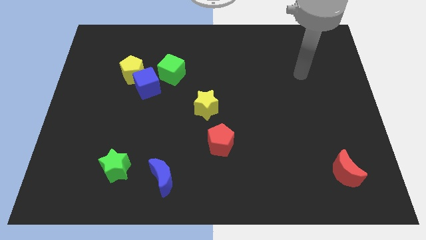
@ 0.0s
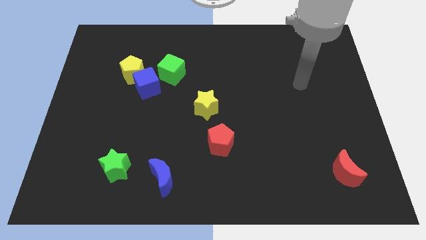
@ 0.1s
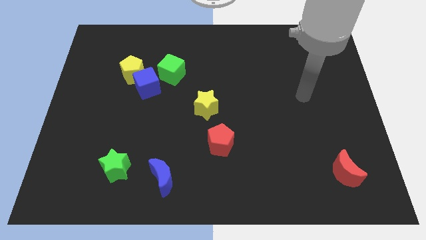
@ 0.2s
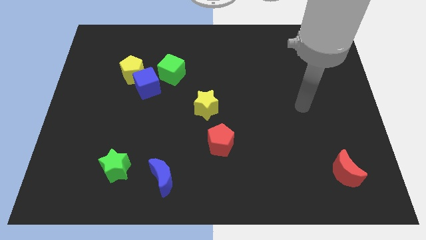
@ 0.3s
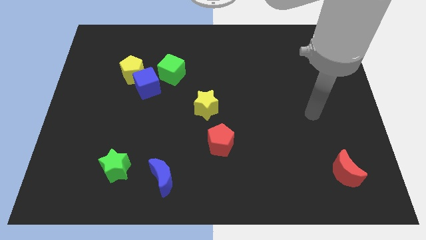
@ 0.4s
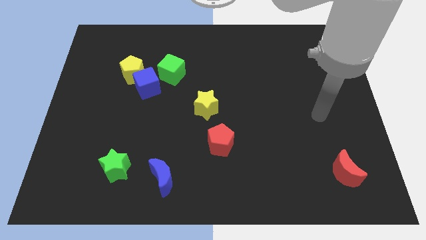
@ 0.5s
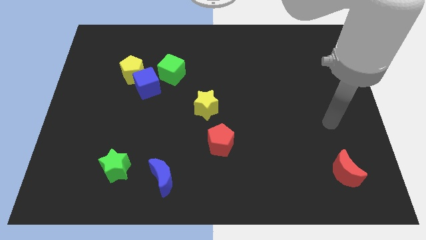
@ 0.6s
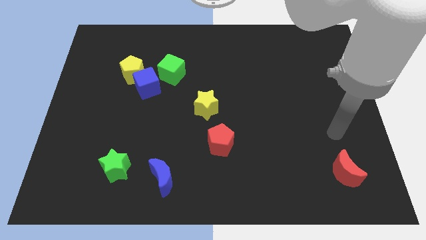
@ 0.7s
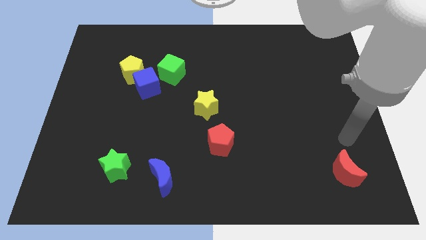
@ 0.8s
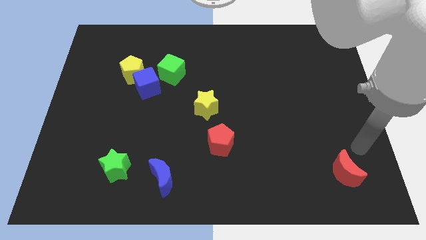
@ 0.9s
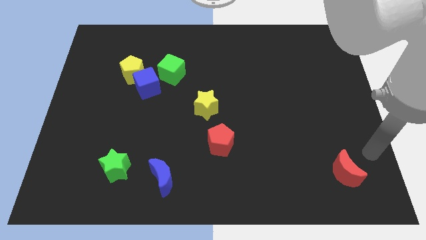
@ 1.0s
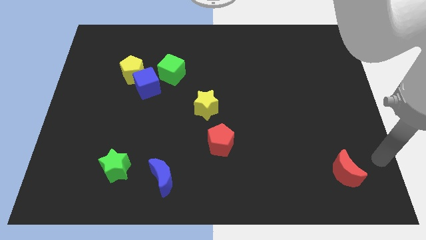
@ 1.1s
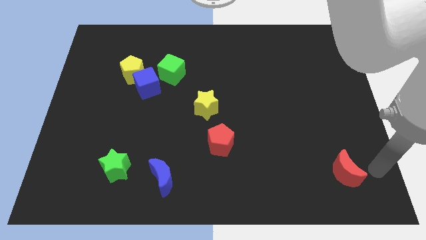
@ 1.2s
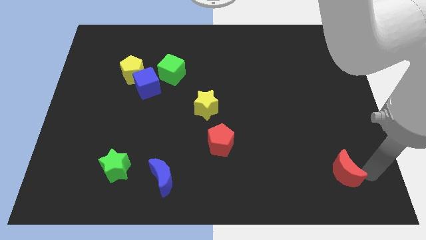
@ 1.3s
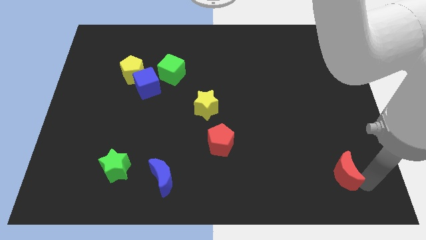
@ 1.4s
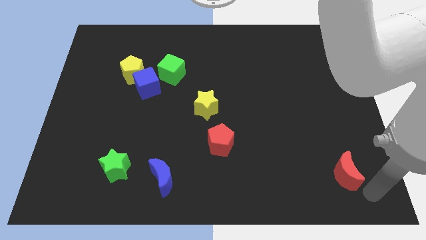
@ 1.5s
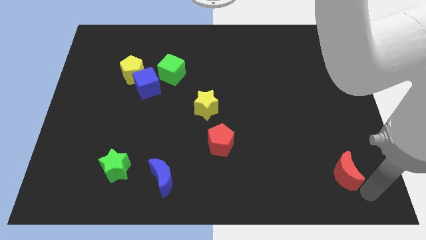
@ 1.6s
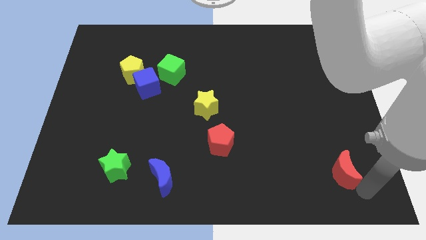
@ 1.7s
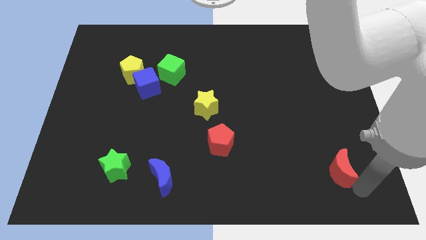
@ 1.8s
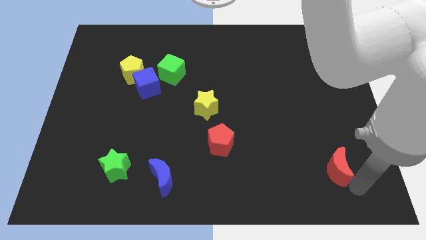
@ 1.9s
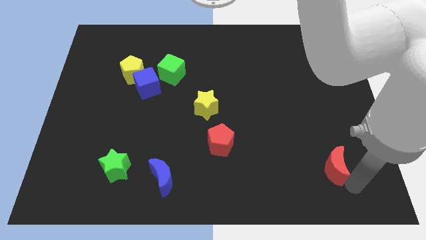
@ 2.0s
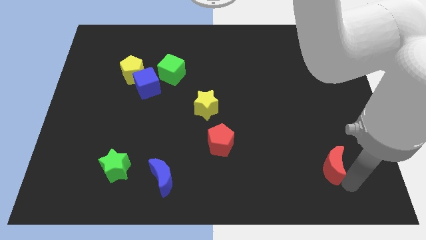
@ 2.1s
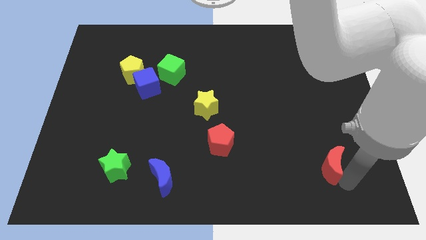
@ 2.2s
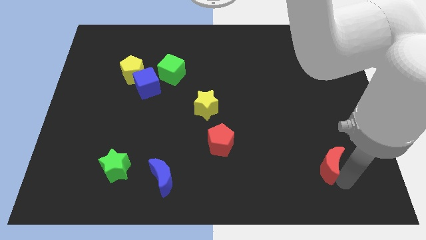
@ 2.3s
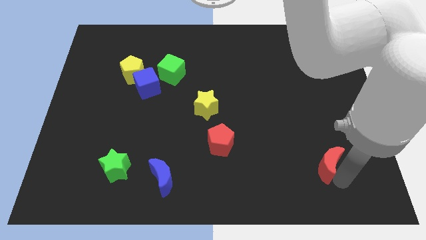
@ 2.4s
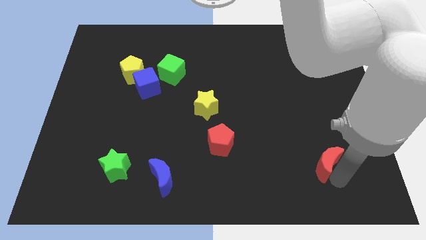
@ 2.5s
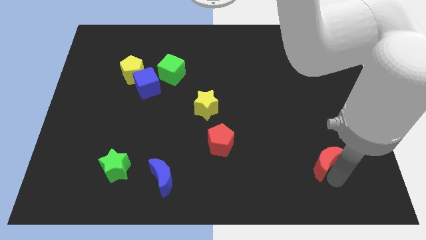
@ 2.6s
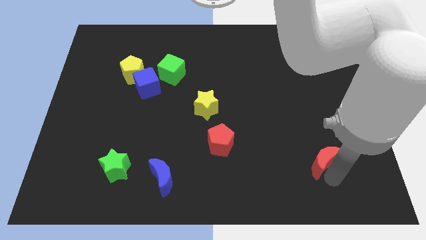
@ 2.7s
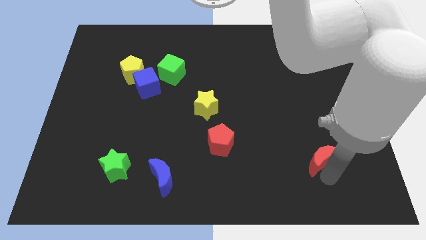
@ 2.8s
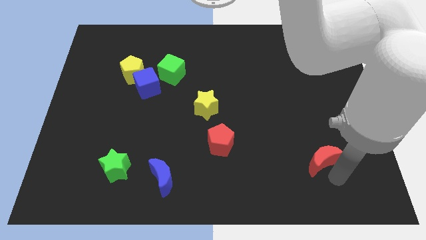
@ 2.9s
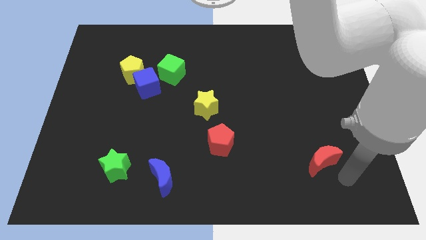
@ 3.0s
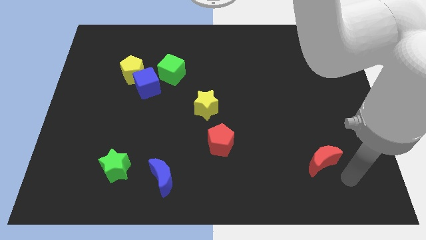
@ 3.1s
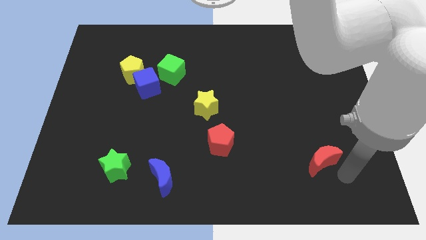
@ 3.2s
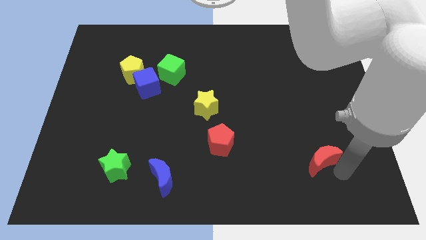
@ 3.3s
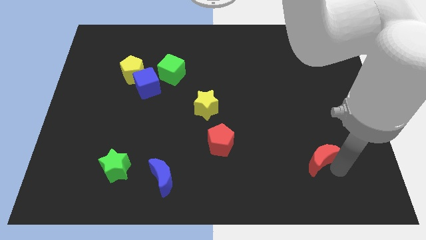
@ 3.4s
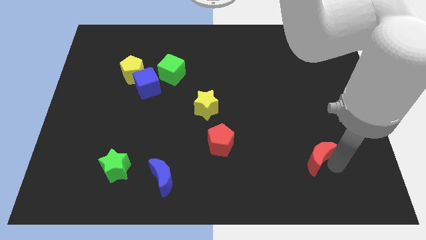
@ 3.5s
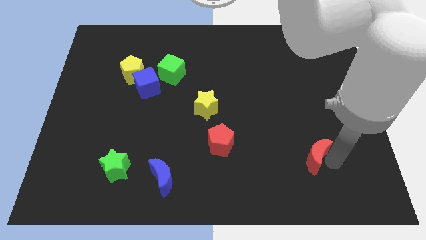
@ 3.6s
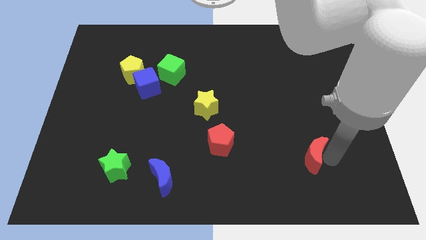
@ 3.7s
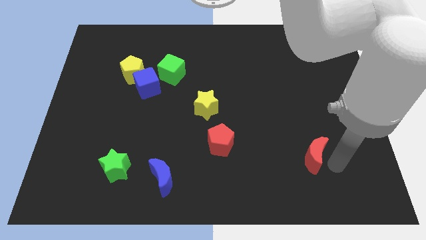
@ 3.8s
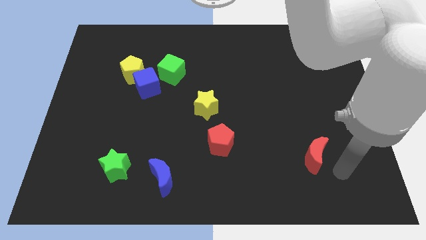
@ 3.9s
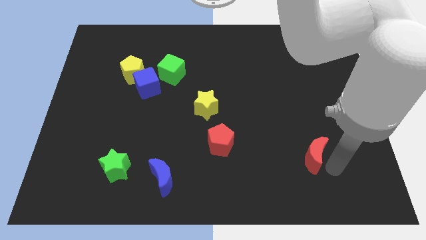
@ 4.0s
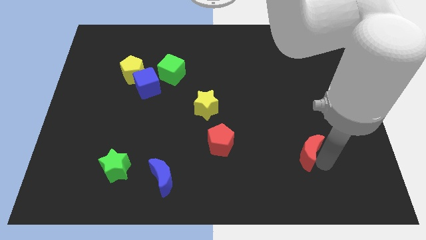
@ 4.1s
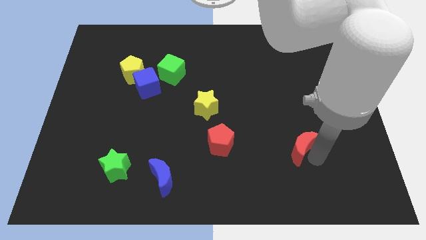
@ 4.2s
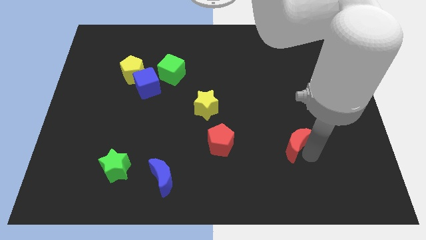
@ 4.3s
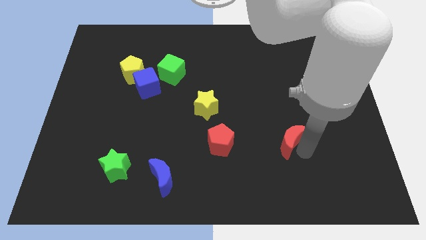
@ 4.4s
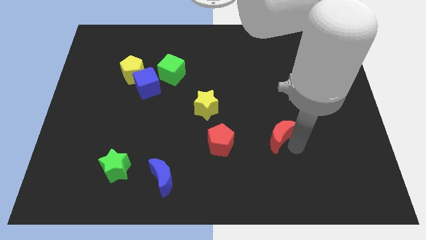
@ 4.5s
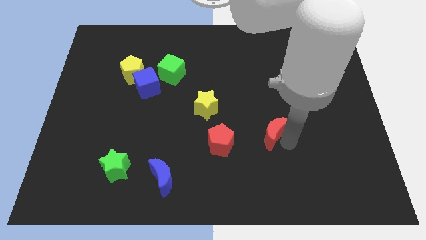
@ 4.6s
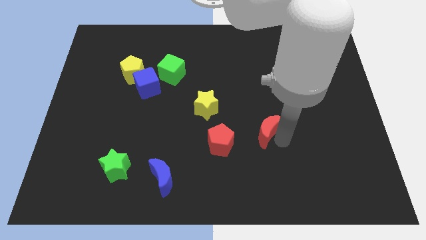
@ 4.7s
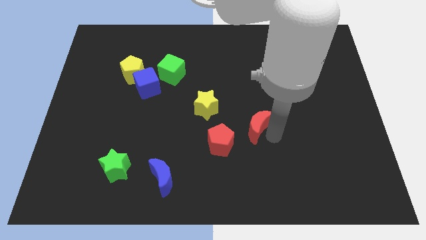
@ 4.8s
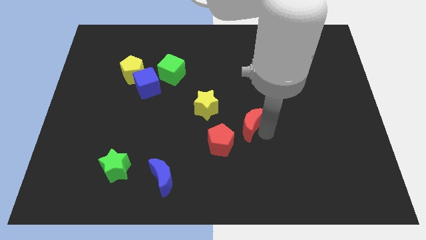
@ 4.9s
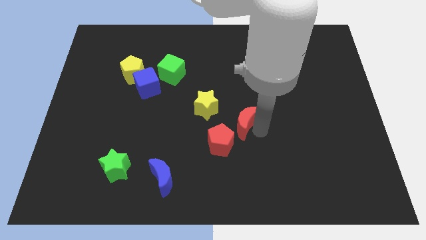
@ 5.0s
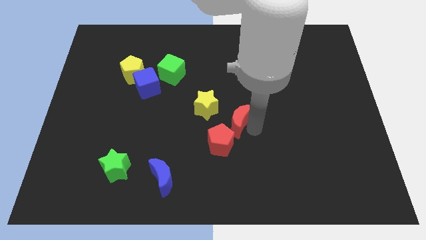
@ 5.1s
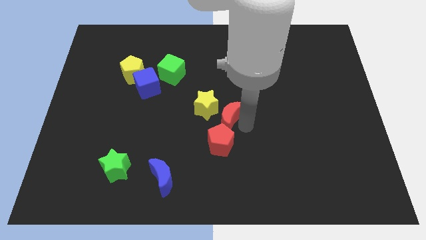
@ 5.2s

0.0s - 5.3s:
slide the red moon next to the yellow star

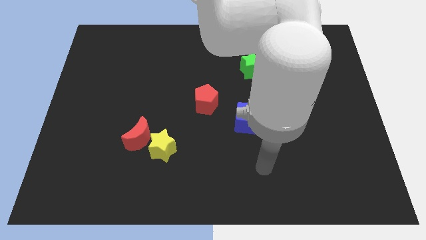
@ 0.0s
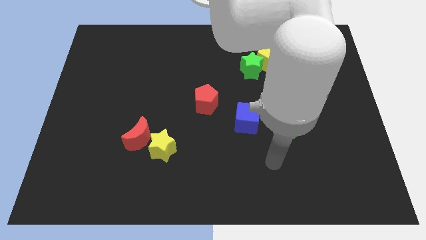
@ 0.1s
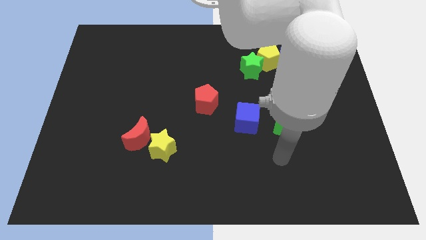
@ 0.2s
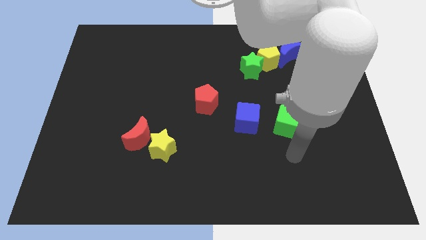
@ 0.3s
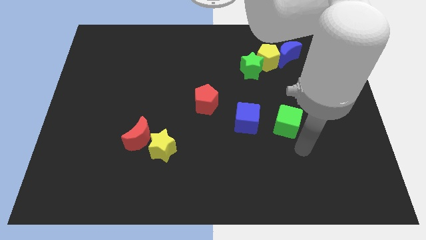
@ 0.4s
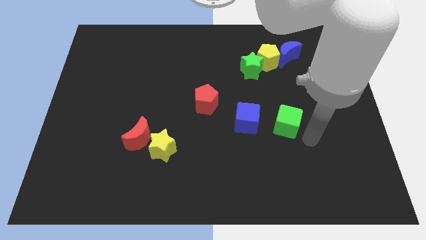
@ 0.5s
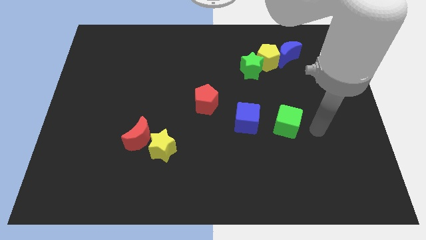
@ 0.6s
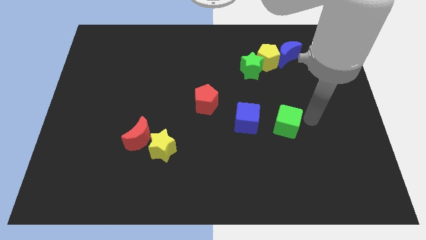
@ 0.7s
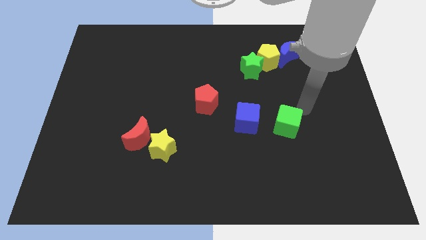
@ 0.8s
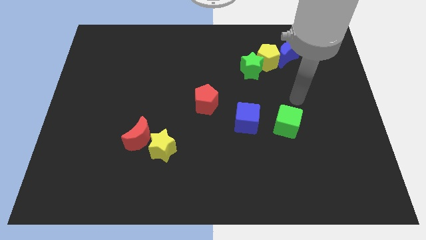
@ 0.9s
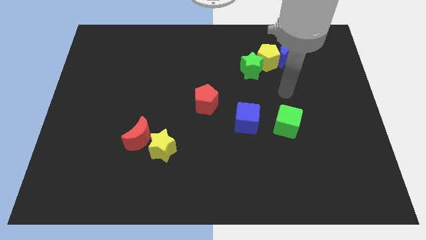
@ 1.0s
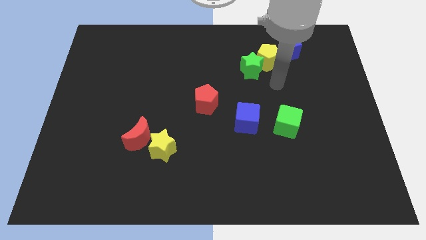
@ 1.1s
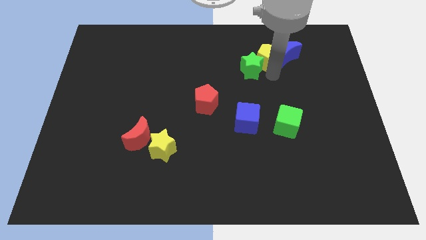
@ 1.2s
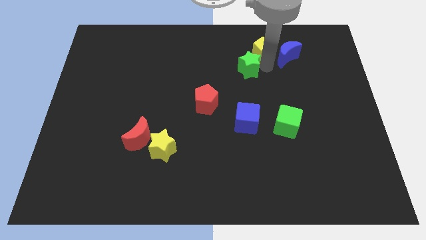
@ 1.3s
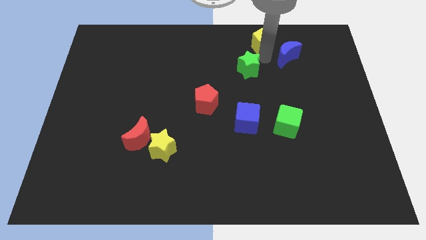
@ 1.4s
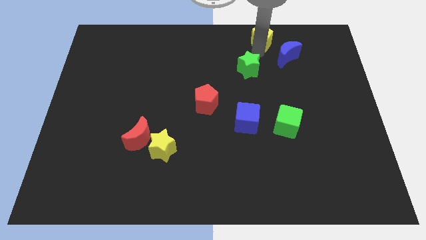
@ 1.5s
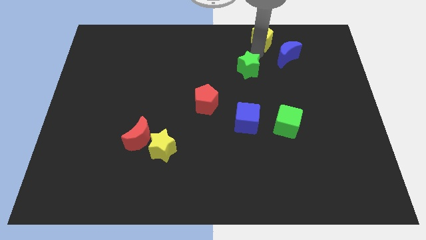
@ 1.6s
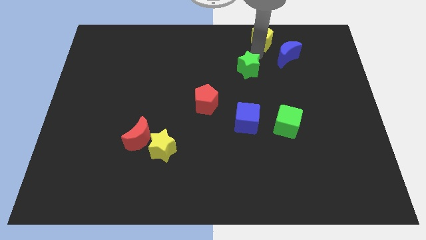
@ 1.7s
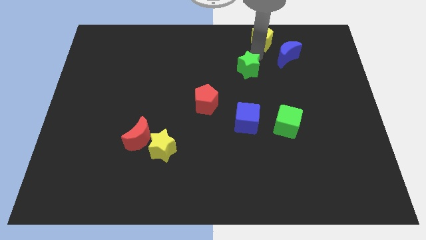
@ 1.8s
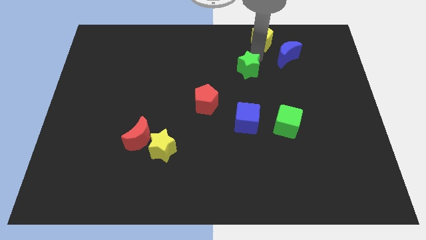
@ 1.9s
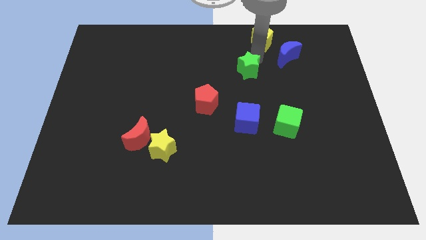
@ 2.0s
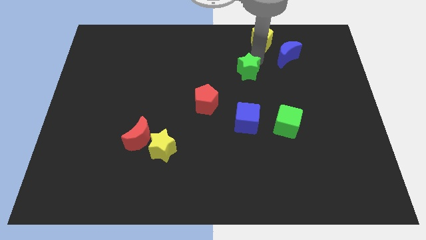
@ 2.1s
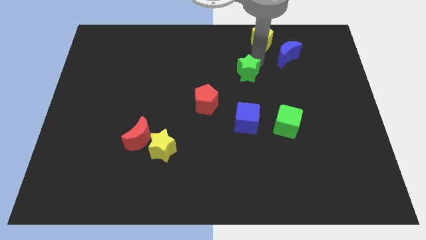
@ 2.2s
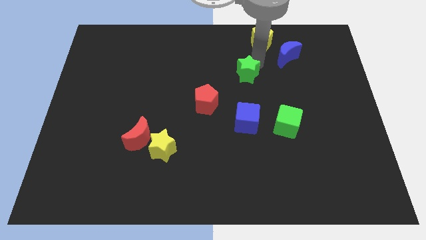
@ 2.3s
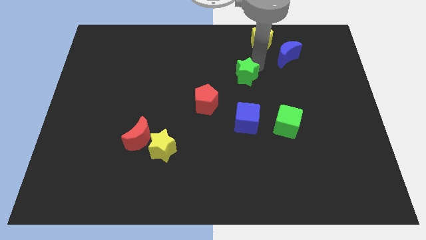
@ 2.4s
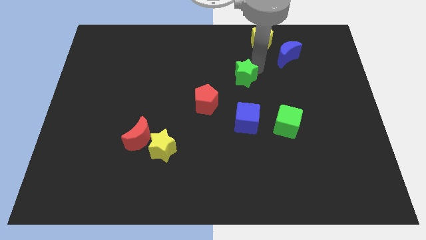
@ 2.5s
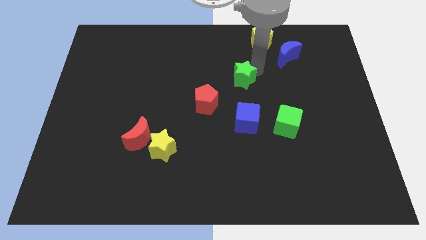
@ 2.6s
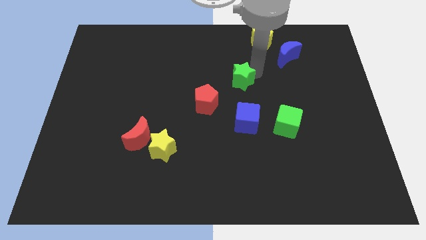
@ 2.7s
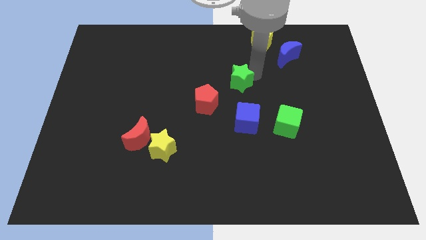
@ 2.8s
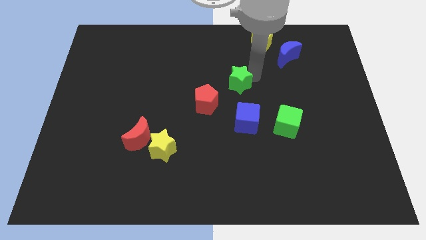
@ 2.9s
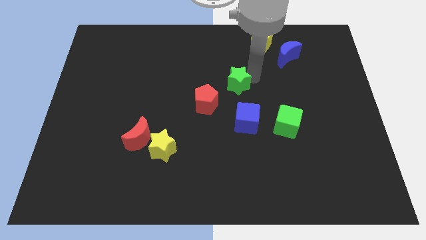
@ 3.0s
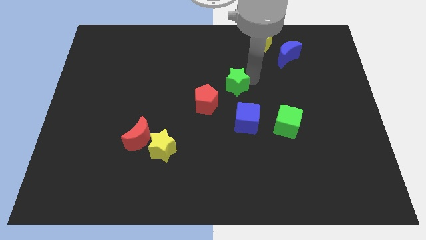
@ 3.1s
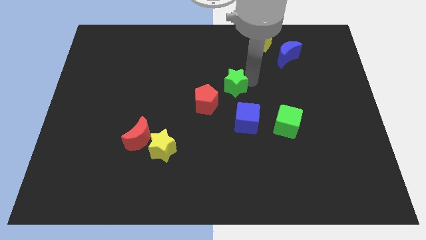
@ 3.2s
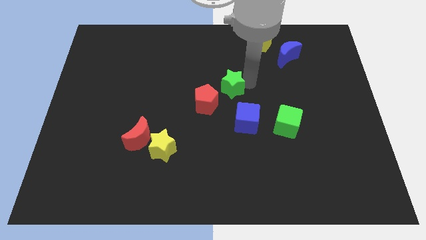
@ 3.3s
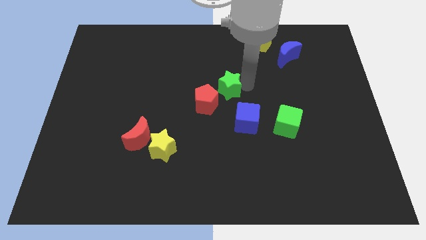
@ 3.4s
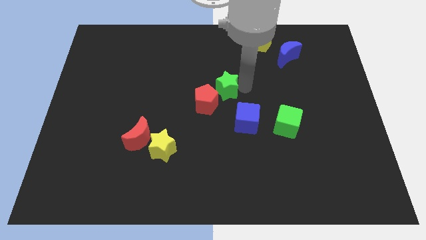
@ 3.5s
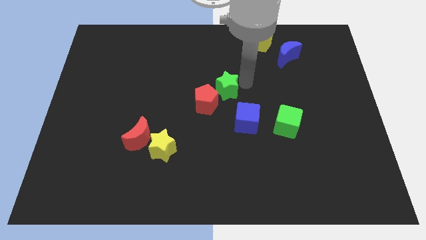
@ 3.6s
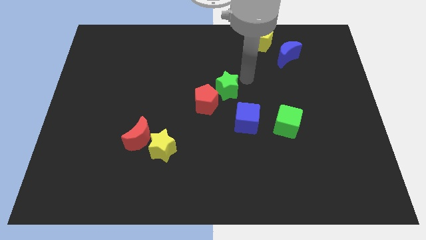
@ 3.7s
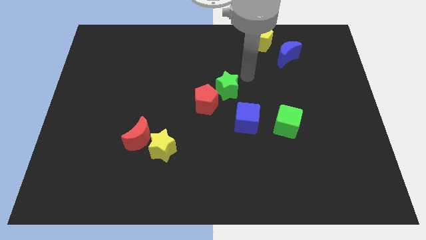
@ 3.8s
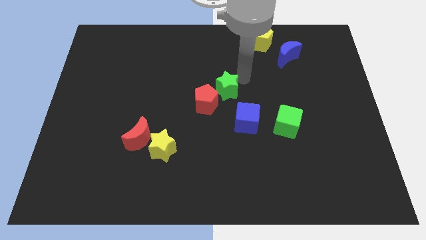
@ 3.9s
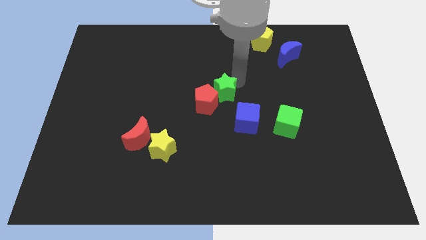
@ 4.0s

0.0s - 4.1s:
move the green star close to the red pentagon
